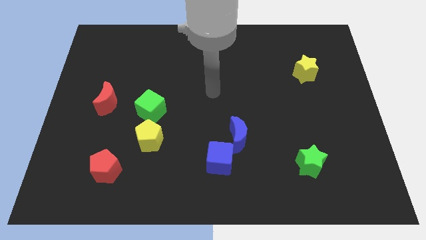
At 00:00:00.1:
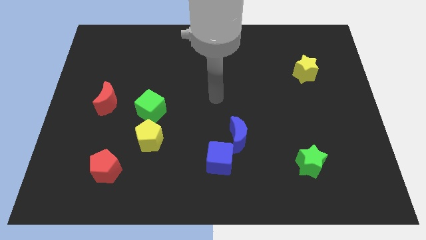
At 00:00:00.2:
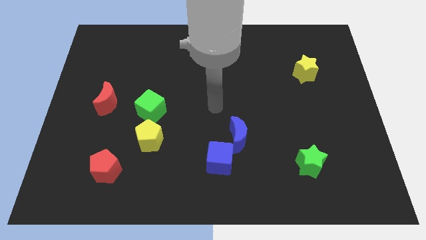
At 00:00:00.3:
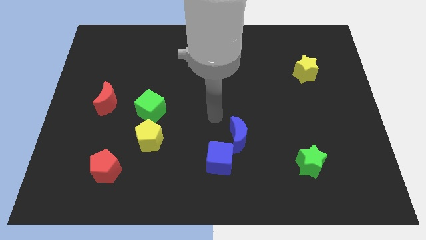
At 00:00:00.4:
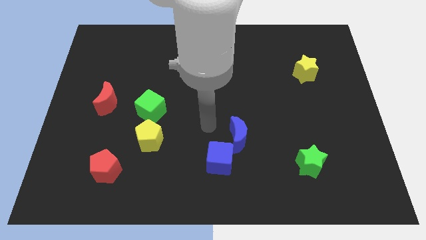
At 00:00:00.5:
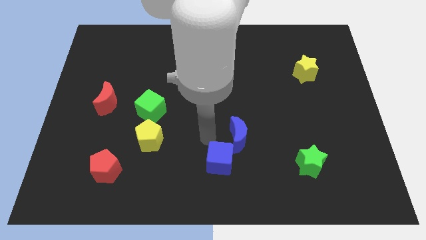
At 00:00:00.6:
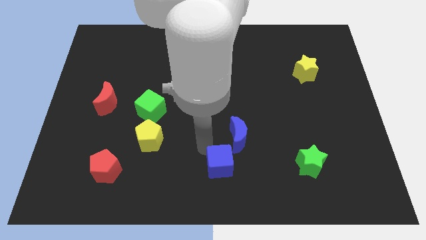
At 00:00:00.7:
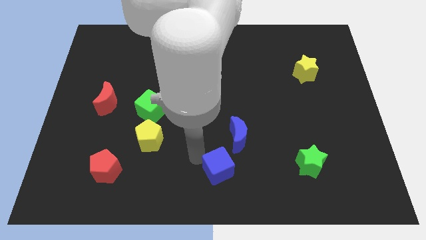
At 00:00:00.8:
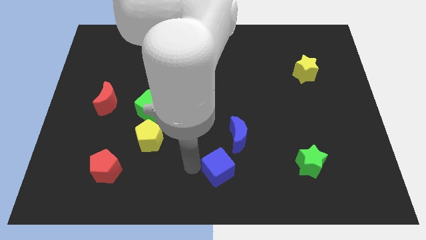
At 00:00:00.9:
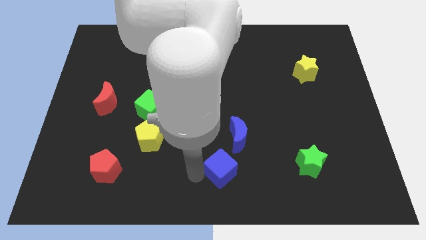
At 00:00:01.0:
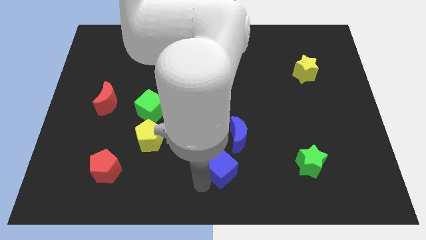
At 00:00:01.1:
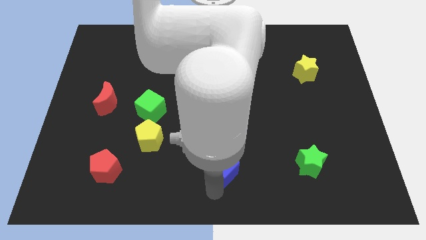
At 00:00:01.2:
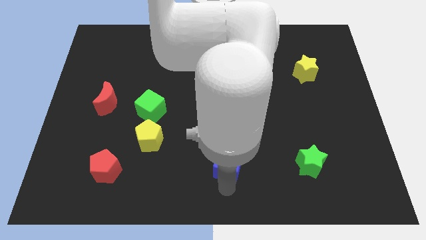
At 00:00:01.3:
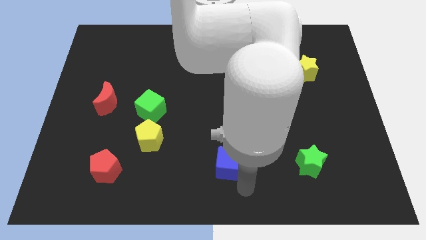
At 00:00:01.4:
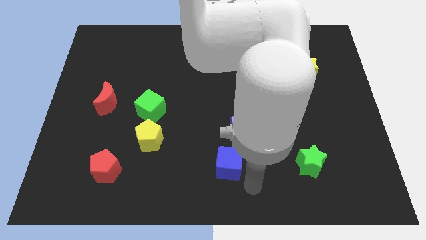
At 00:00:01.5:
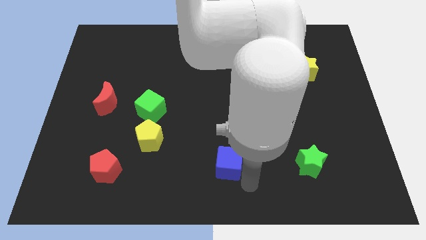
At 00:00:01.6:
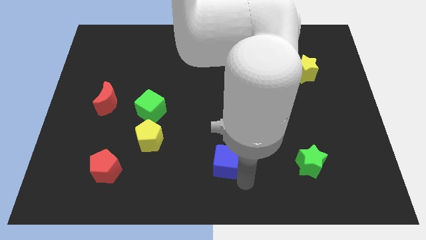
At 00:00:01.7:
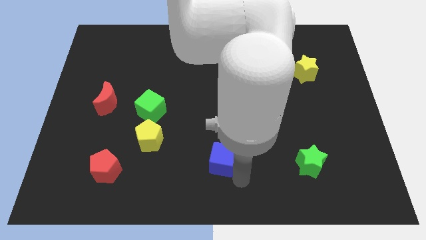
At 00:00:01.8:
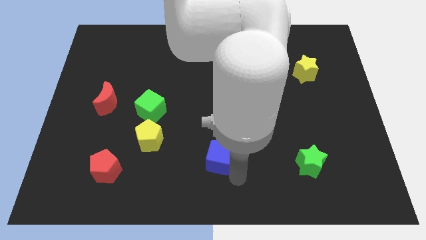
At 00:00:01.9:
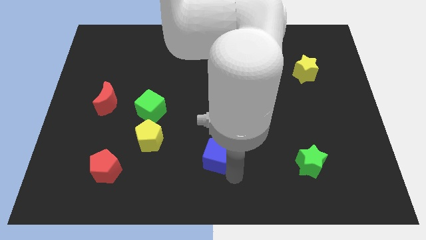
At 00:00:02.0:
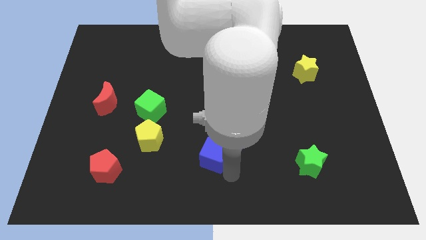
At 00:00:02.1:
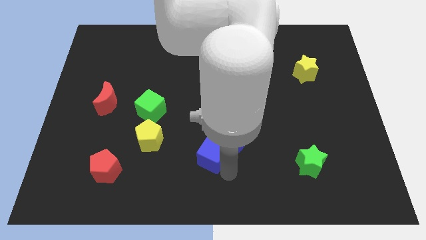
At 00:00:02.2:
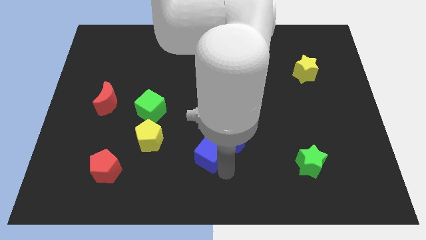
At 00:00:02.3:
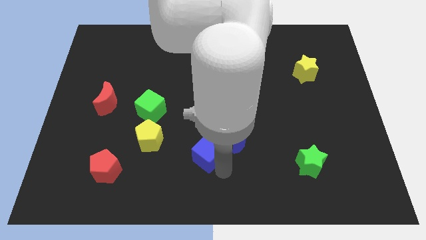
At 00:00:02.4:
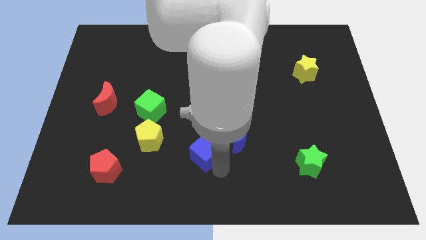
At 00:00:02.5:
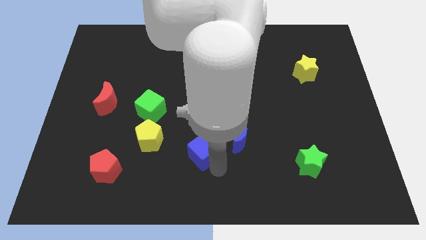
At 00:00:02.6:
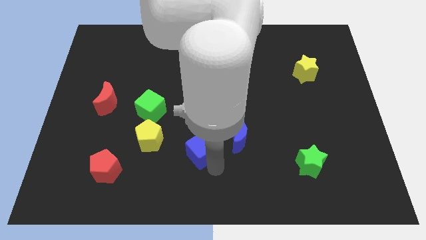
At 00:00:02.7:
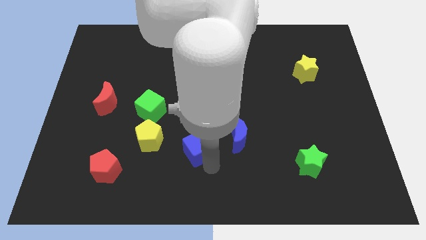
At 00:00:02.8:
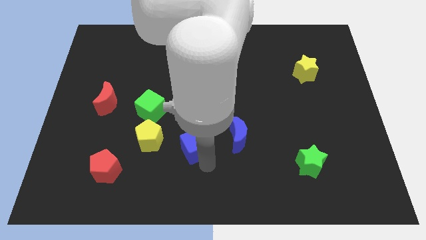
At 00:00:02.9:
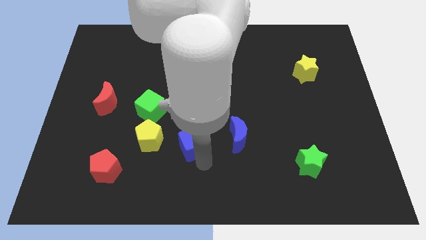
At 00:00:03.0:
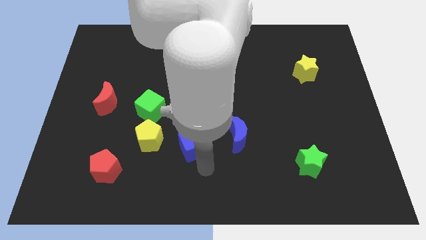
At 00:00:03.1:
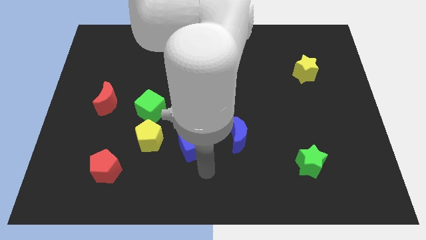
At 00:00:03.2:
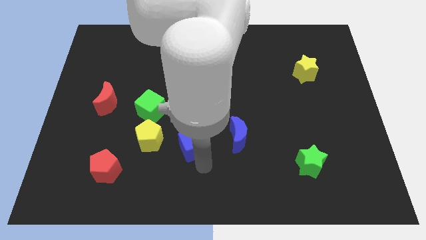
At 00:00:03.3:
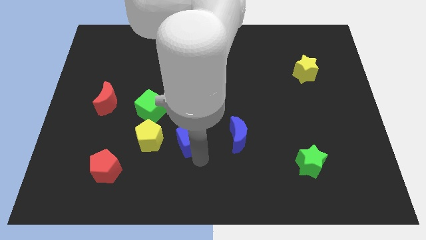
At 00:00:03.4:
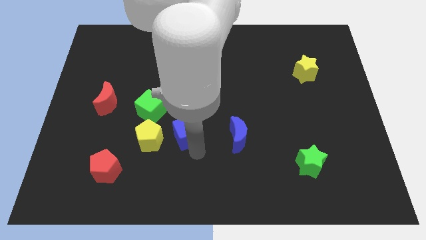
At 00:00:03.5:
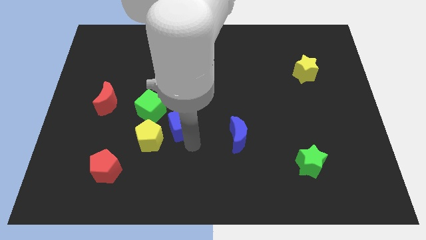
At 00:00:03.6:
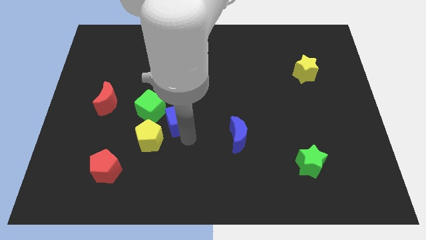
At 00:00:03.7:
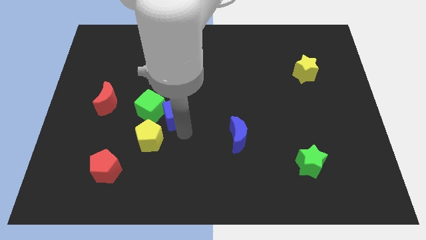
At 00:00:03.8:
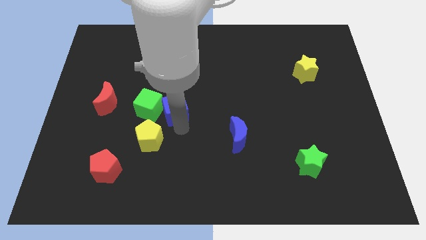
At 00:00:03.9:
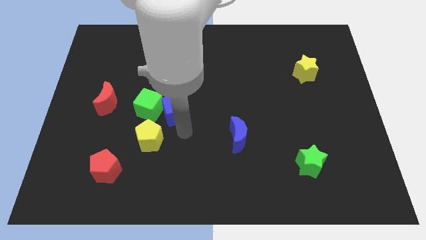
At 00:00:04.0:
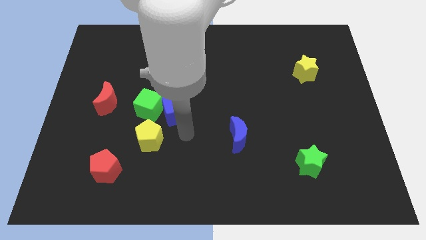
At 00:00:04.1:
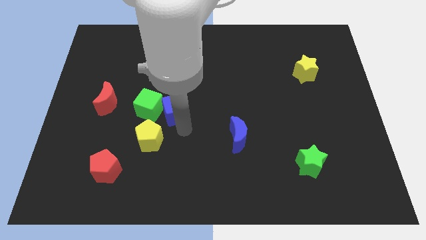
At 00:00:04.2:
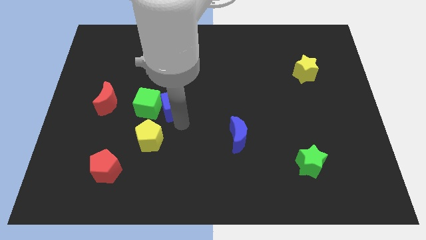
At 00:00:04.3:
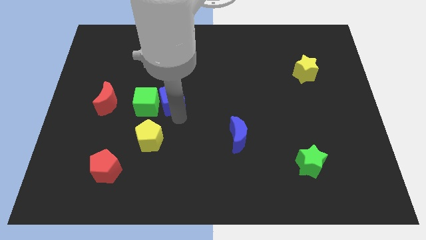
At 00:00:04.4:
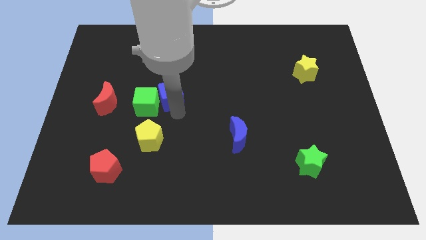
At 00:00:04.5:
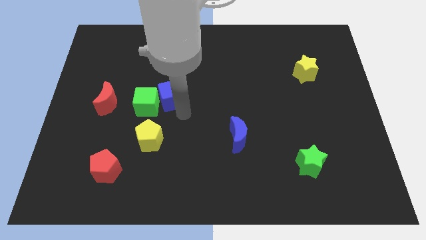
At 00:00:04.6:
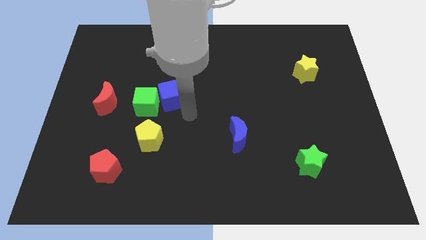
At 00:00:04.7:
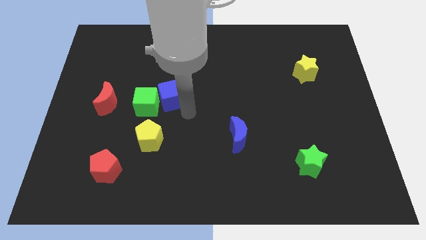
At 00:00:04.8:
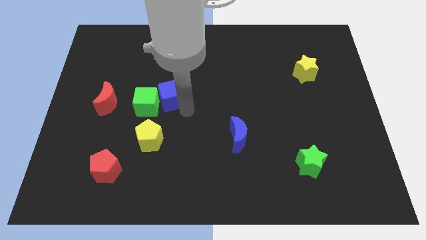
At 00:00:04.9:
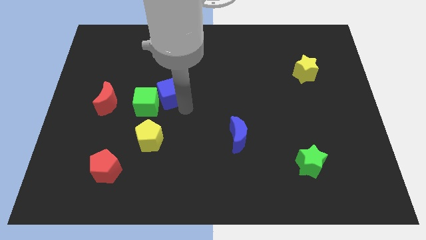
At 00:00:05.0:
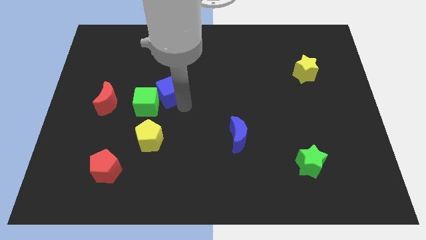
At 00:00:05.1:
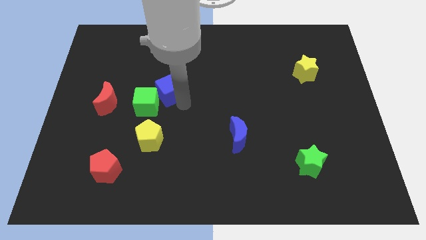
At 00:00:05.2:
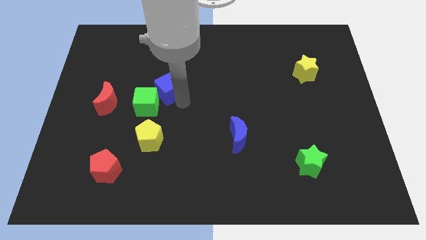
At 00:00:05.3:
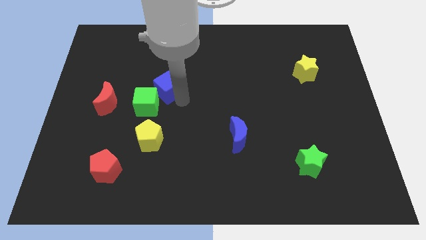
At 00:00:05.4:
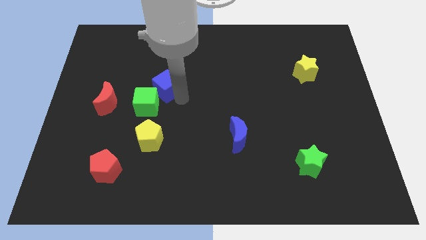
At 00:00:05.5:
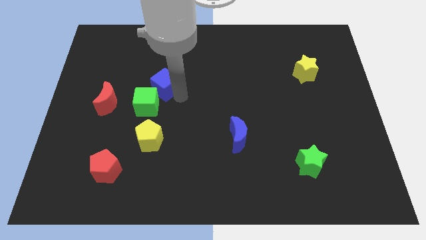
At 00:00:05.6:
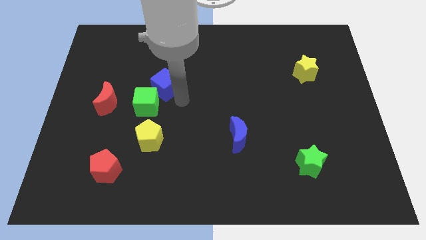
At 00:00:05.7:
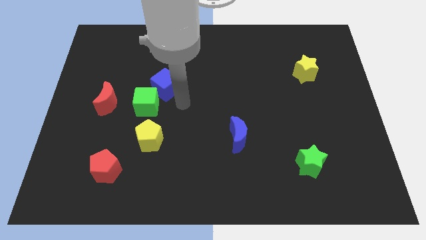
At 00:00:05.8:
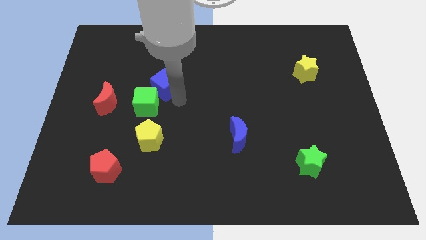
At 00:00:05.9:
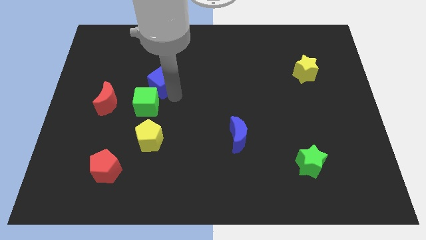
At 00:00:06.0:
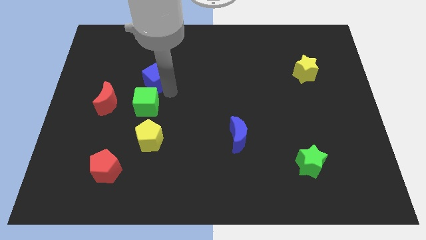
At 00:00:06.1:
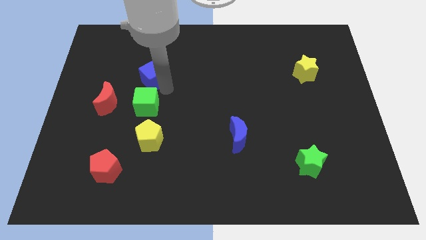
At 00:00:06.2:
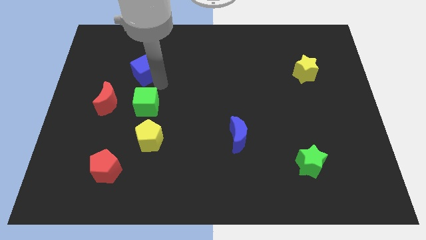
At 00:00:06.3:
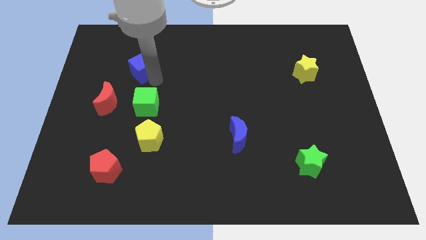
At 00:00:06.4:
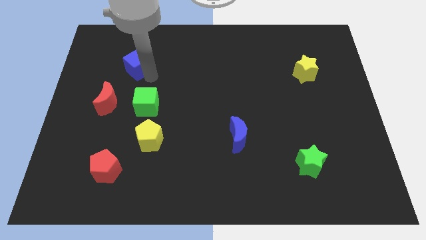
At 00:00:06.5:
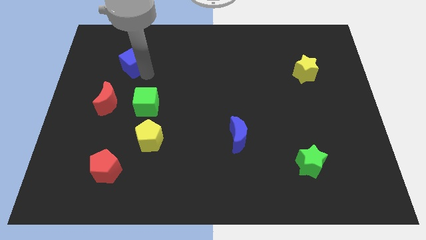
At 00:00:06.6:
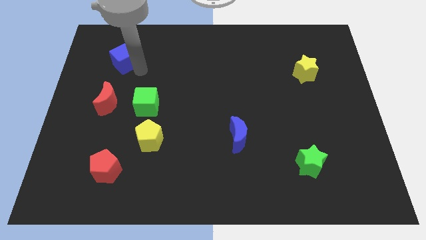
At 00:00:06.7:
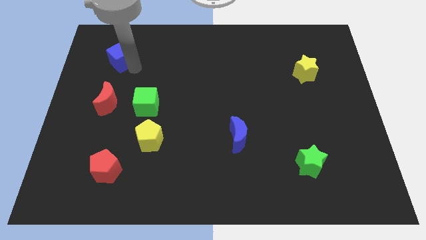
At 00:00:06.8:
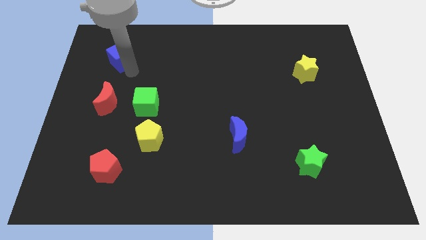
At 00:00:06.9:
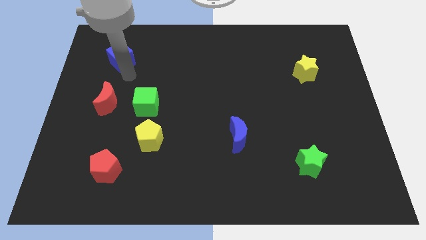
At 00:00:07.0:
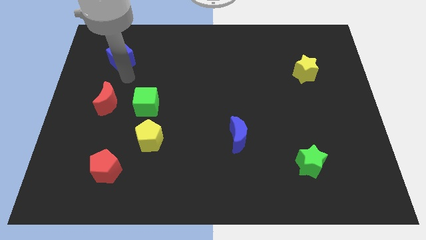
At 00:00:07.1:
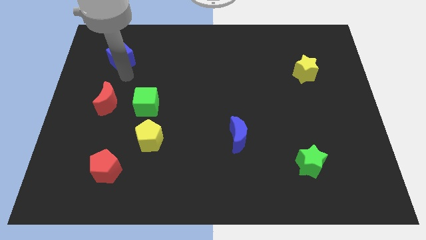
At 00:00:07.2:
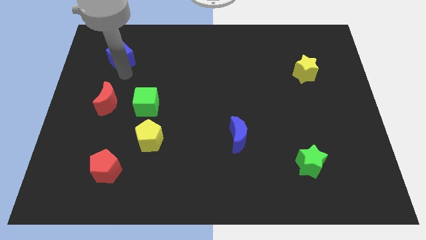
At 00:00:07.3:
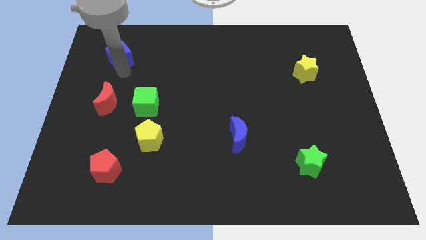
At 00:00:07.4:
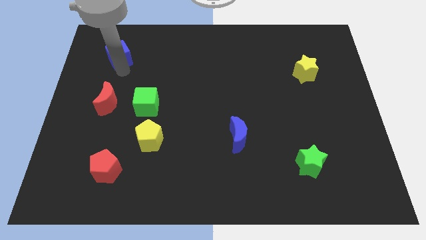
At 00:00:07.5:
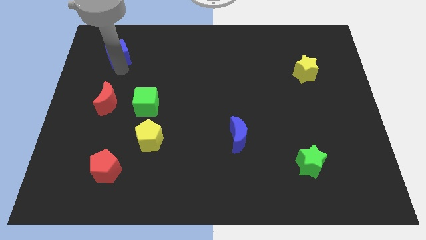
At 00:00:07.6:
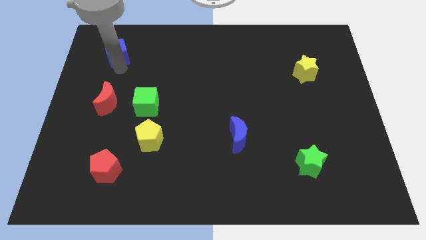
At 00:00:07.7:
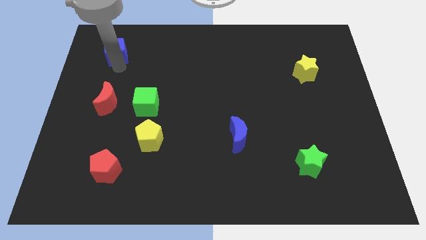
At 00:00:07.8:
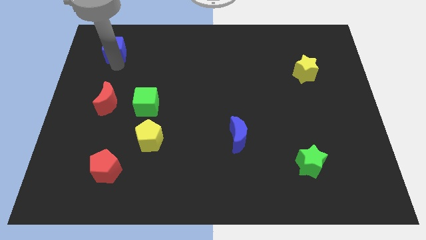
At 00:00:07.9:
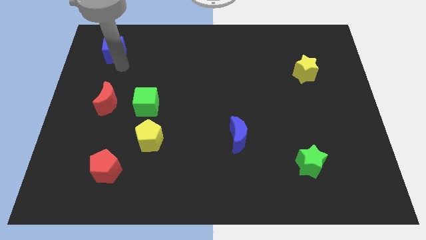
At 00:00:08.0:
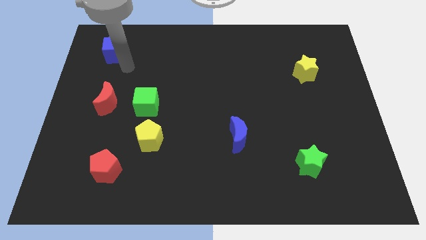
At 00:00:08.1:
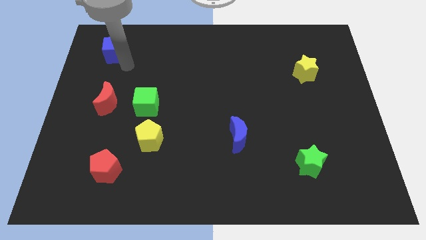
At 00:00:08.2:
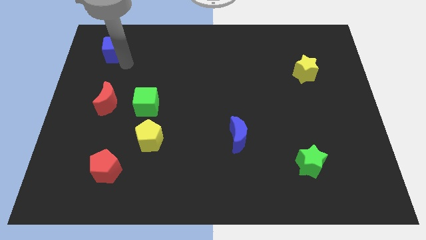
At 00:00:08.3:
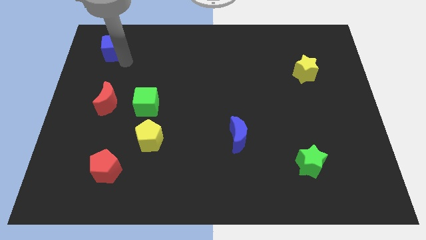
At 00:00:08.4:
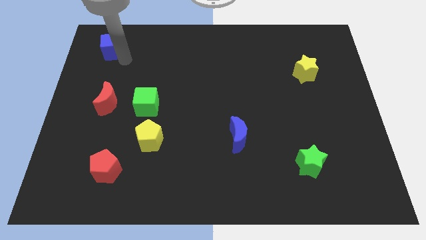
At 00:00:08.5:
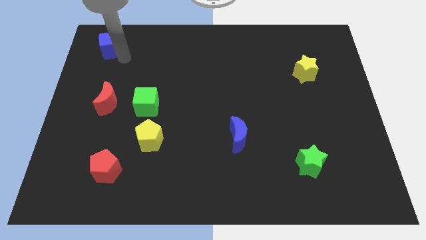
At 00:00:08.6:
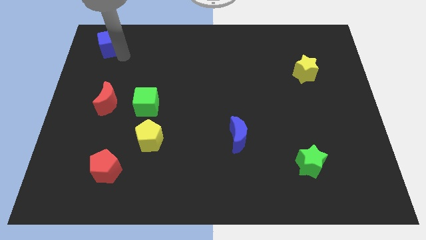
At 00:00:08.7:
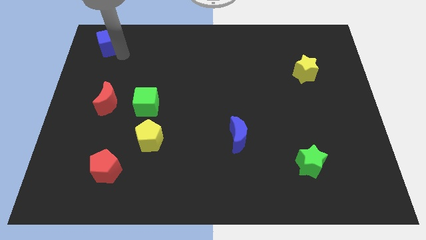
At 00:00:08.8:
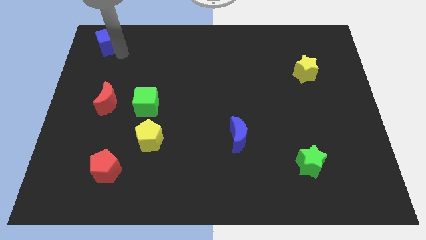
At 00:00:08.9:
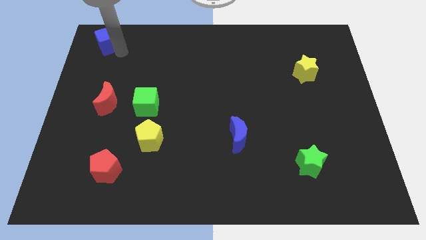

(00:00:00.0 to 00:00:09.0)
move the blue cube to the top left corner
